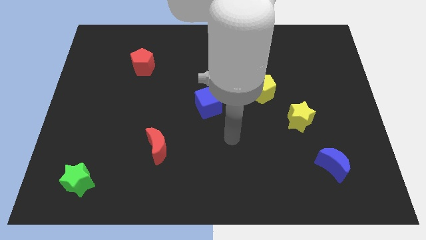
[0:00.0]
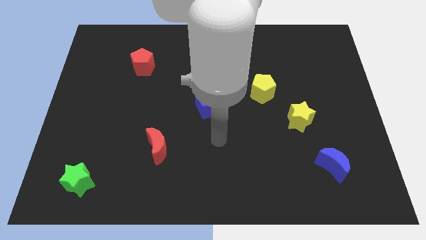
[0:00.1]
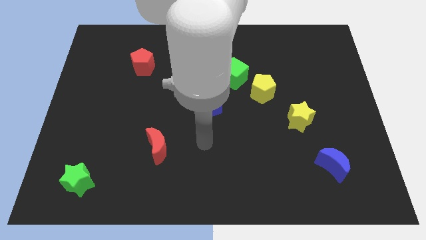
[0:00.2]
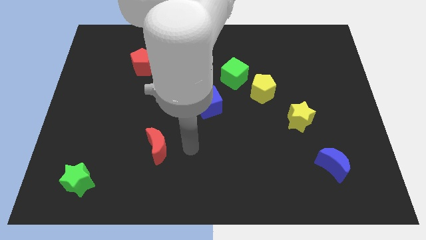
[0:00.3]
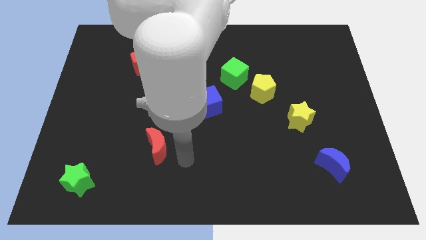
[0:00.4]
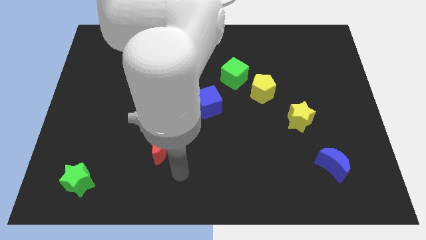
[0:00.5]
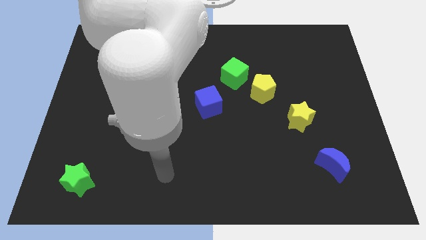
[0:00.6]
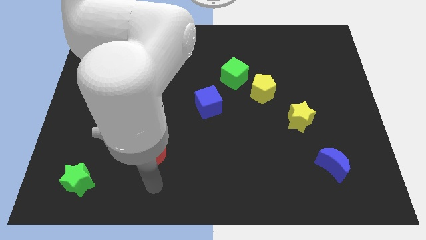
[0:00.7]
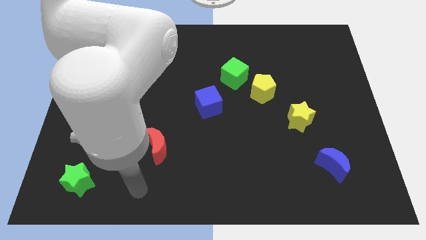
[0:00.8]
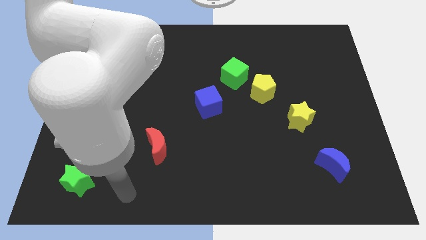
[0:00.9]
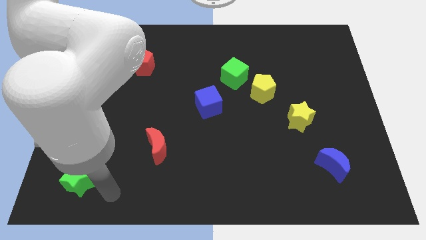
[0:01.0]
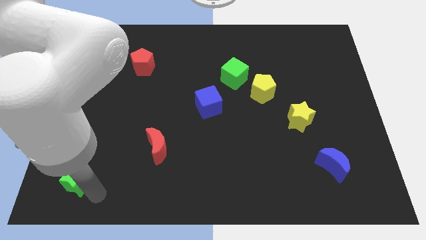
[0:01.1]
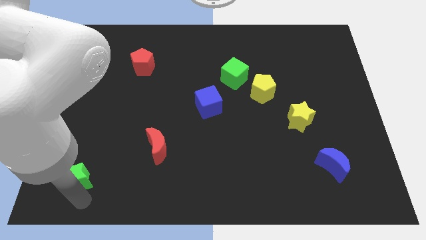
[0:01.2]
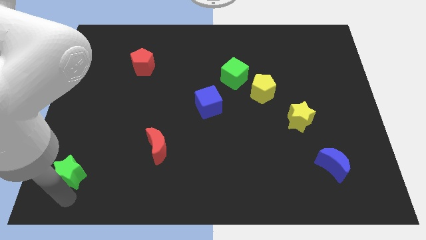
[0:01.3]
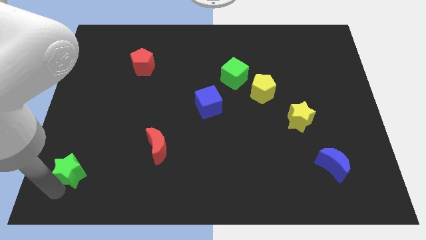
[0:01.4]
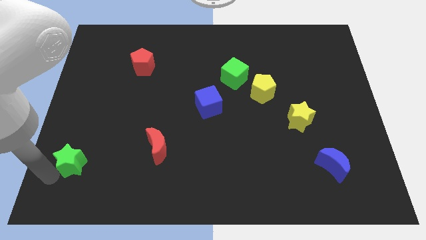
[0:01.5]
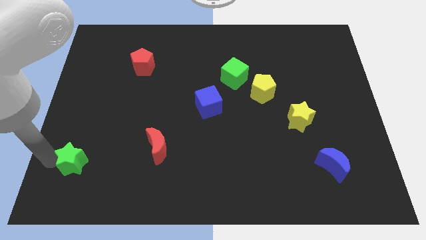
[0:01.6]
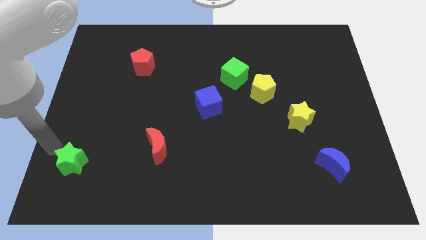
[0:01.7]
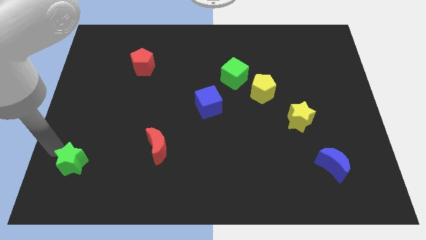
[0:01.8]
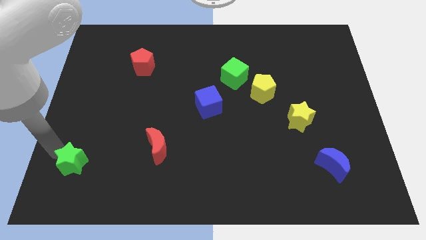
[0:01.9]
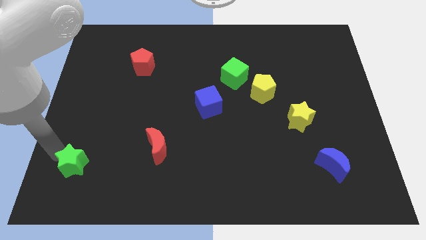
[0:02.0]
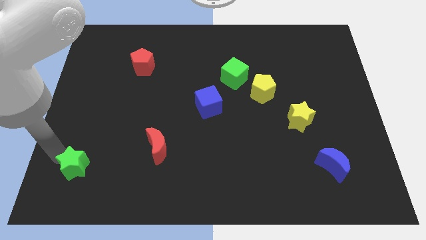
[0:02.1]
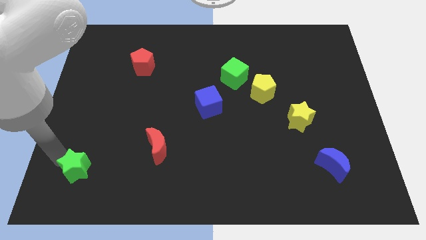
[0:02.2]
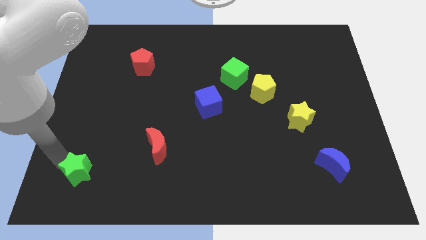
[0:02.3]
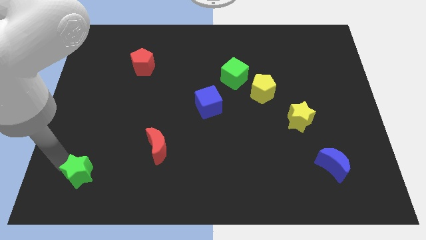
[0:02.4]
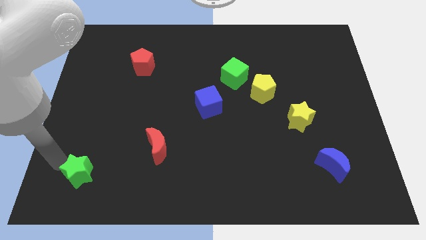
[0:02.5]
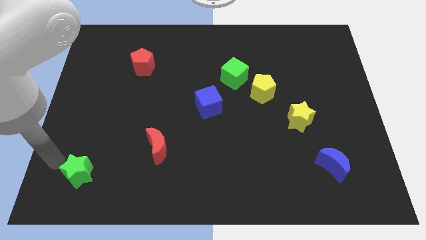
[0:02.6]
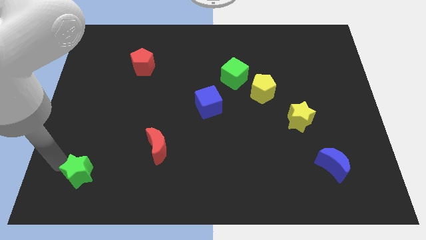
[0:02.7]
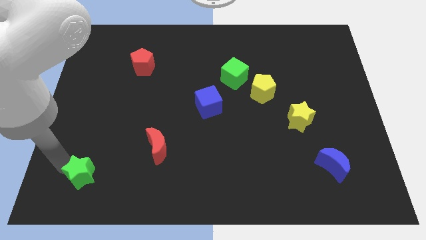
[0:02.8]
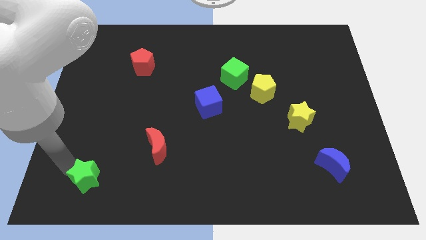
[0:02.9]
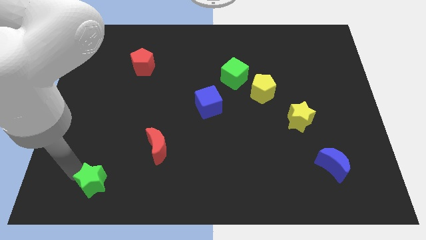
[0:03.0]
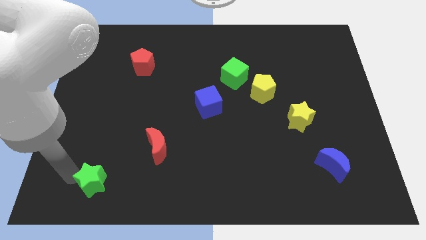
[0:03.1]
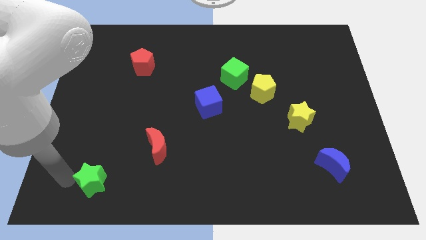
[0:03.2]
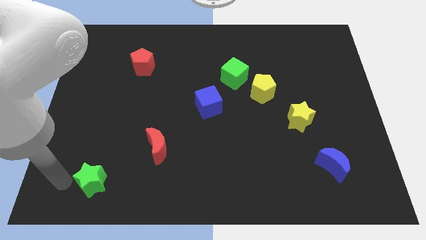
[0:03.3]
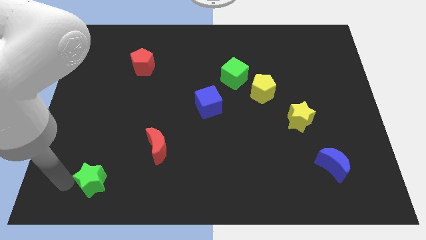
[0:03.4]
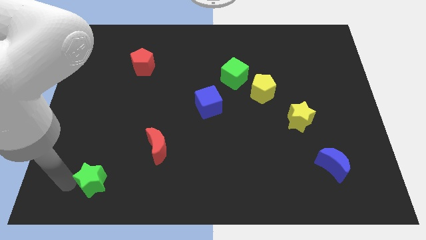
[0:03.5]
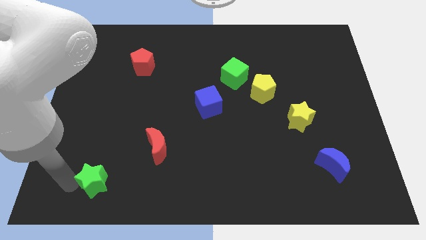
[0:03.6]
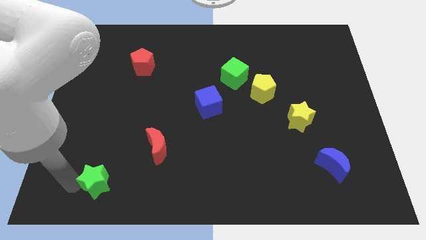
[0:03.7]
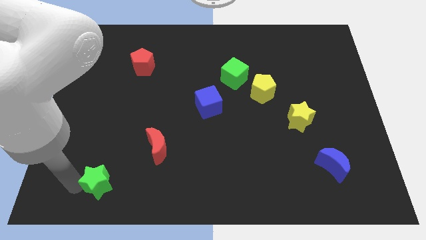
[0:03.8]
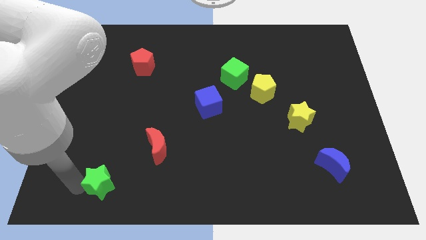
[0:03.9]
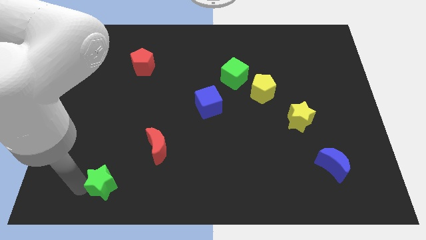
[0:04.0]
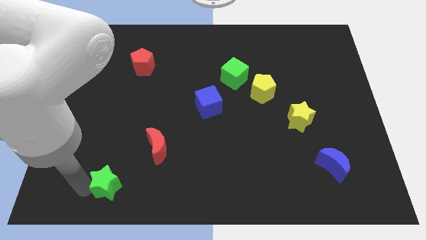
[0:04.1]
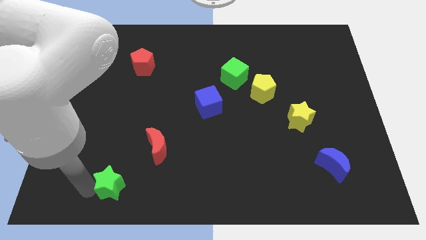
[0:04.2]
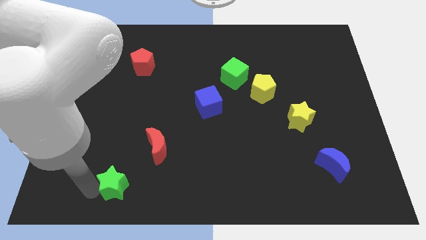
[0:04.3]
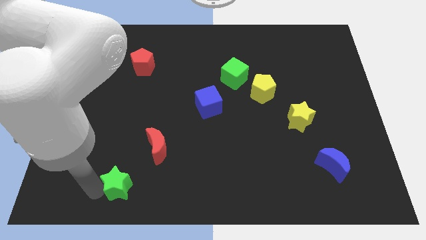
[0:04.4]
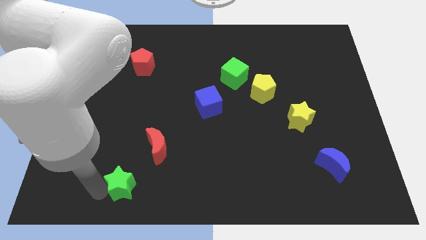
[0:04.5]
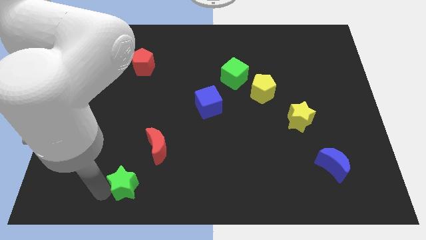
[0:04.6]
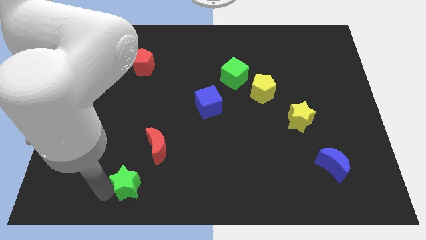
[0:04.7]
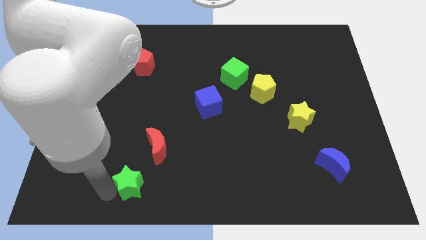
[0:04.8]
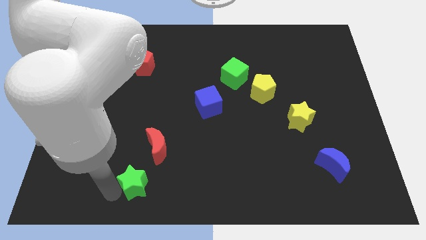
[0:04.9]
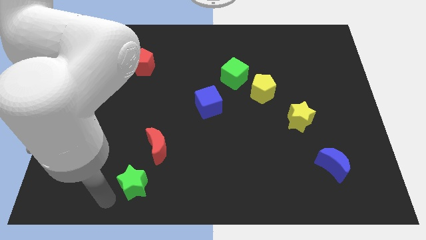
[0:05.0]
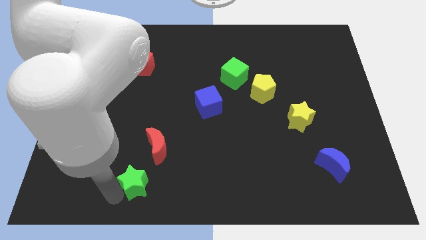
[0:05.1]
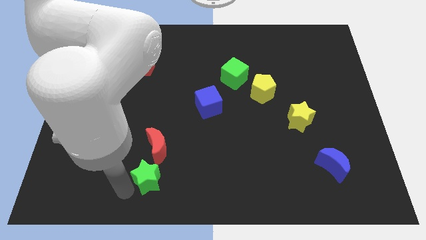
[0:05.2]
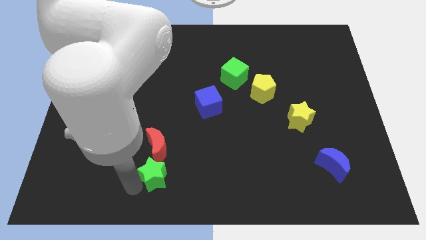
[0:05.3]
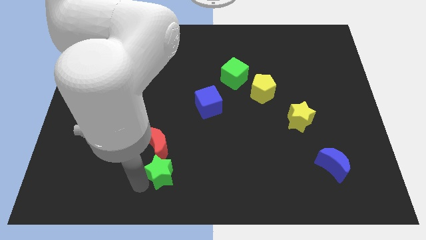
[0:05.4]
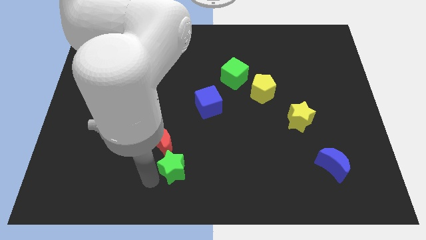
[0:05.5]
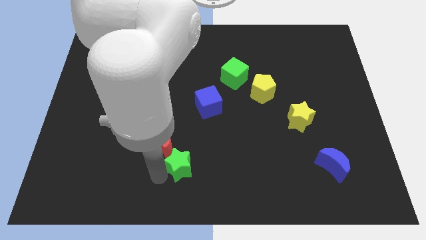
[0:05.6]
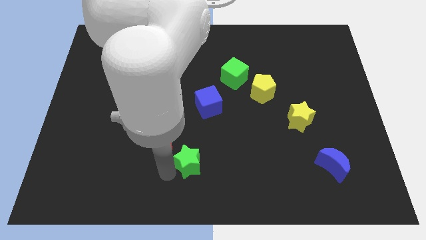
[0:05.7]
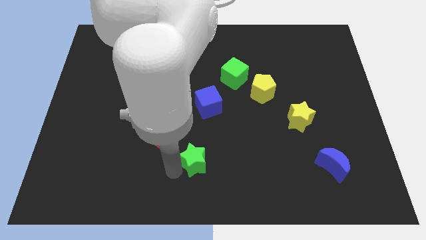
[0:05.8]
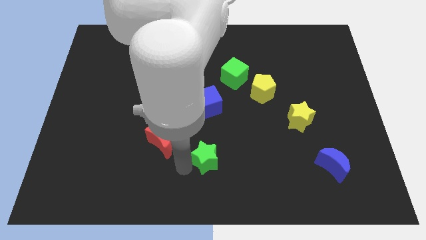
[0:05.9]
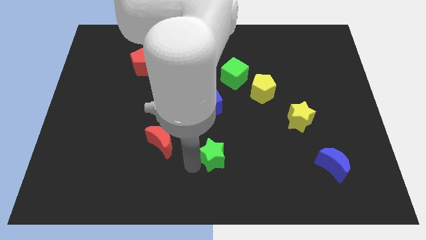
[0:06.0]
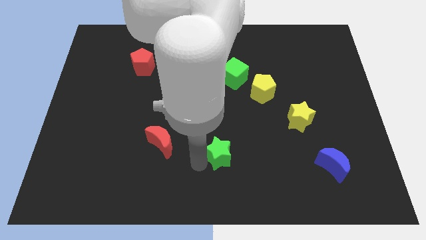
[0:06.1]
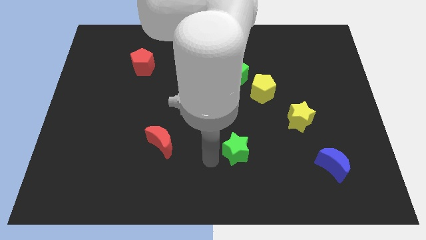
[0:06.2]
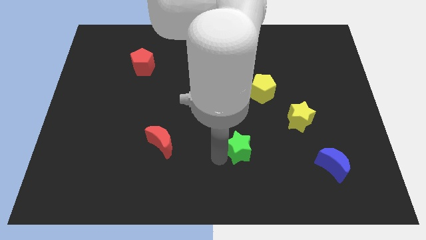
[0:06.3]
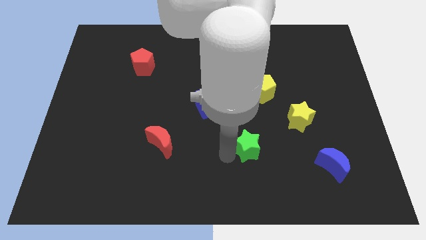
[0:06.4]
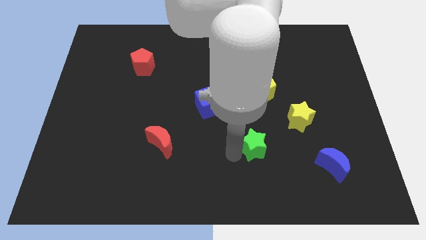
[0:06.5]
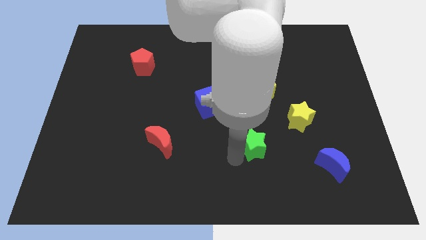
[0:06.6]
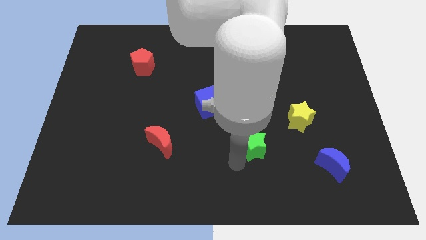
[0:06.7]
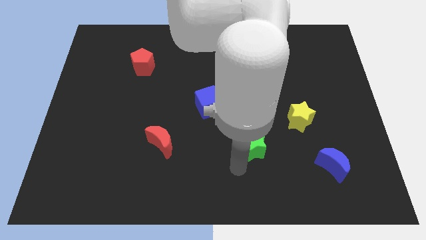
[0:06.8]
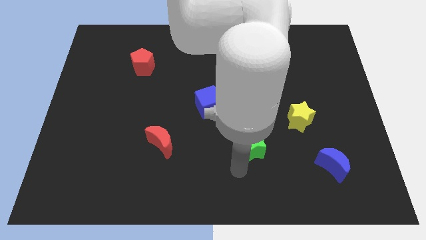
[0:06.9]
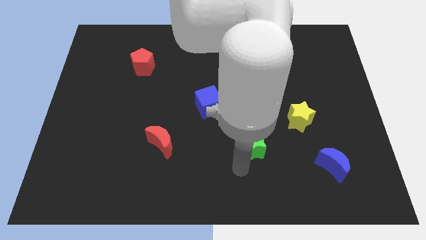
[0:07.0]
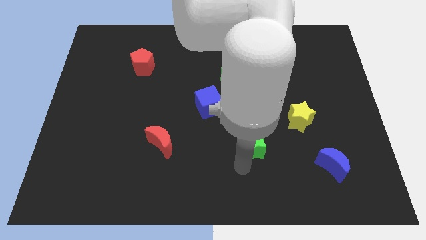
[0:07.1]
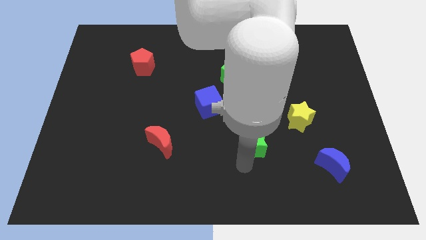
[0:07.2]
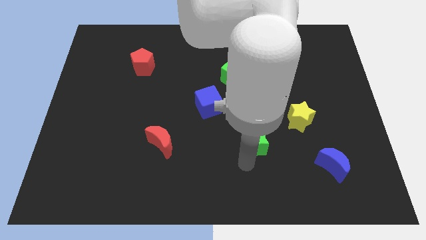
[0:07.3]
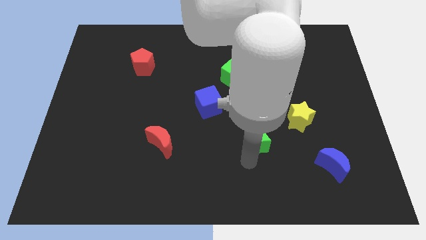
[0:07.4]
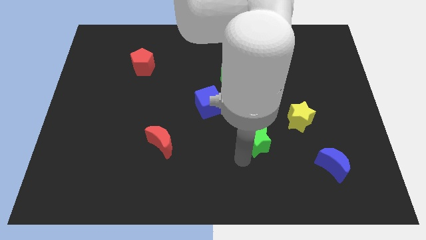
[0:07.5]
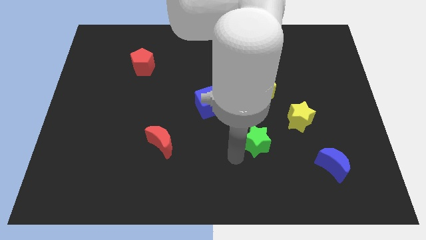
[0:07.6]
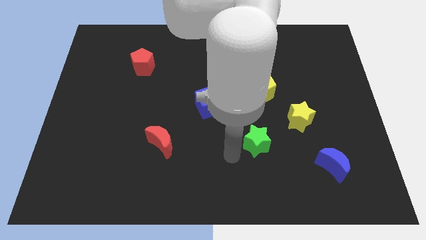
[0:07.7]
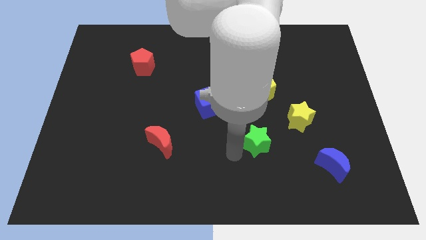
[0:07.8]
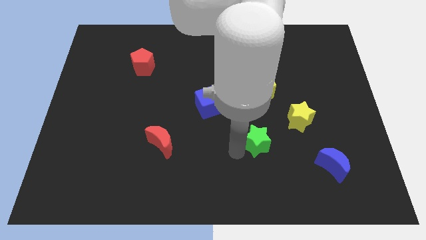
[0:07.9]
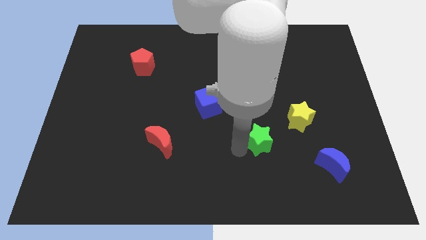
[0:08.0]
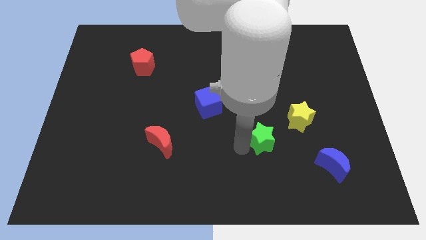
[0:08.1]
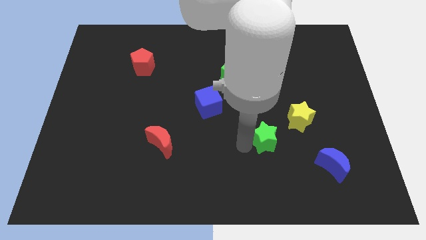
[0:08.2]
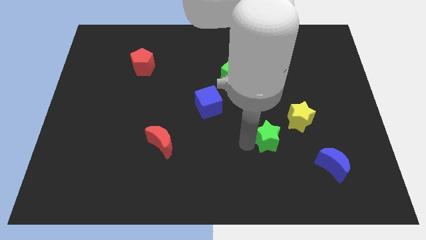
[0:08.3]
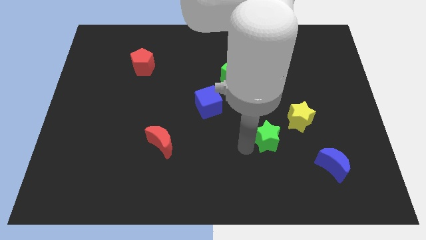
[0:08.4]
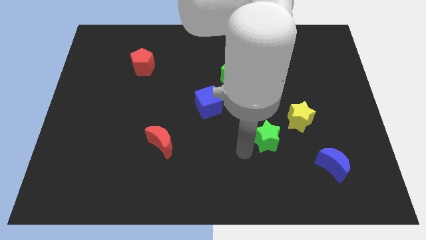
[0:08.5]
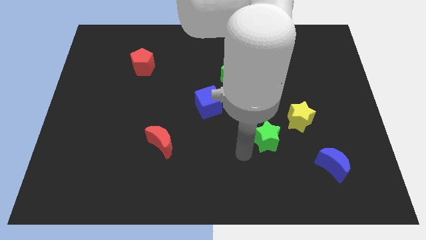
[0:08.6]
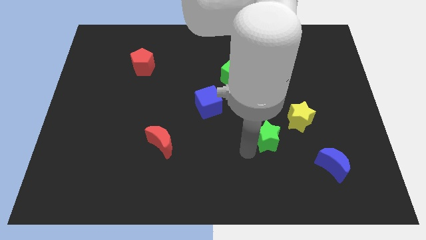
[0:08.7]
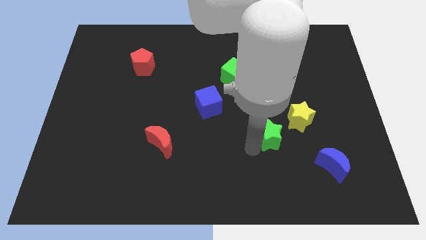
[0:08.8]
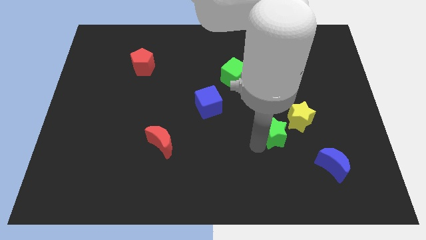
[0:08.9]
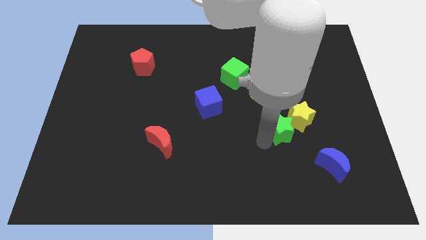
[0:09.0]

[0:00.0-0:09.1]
put the green star close to the yellow star

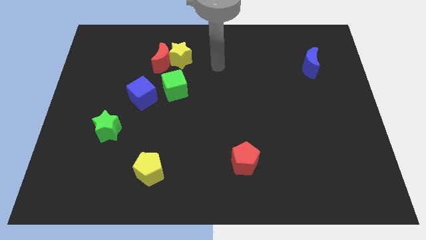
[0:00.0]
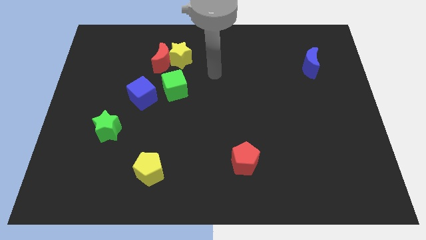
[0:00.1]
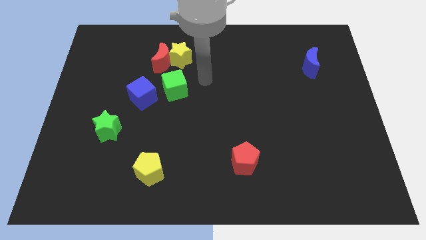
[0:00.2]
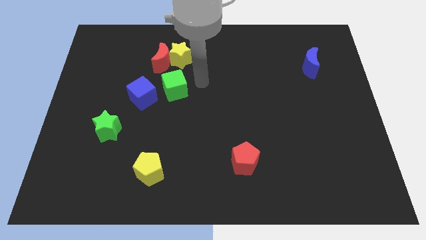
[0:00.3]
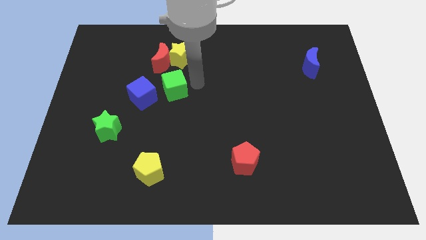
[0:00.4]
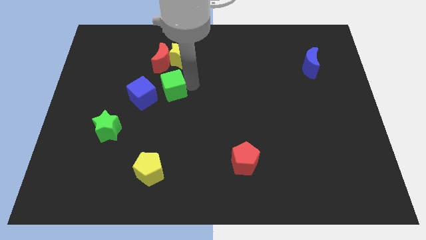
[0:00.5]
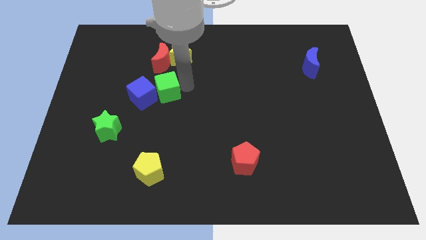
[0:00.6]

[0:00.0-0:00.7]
move the green cube towards the blue cube
